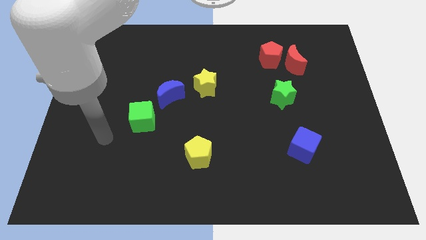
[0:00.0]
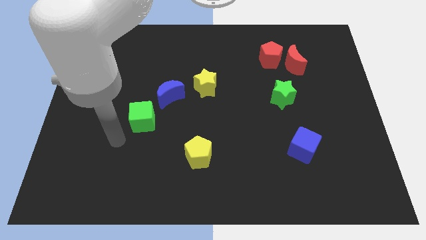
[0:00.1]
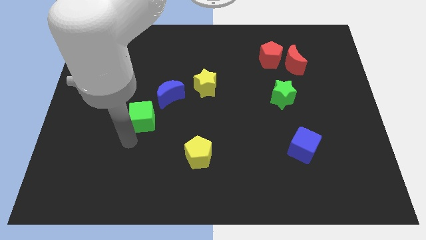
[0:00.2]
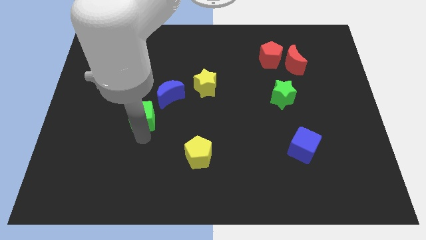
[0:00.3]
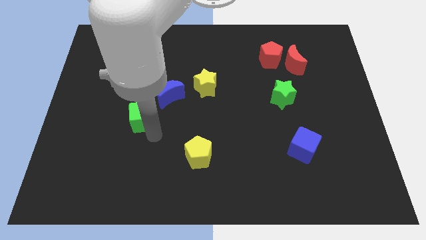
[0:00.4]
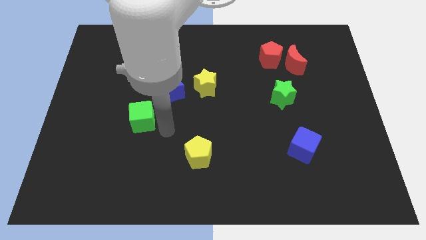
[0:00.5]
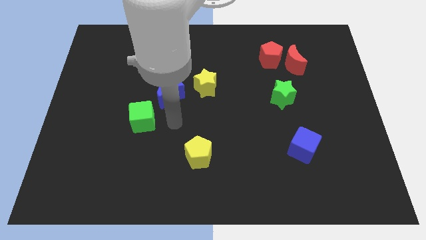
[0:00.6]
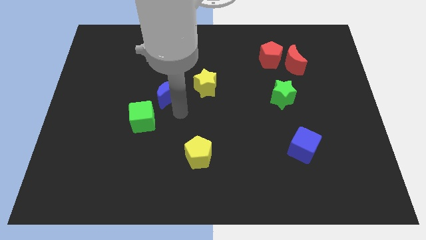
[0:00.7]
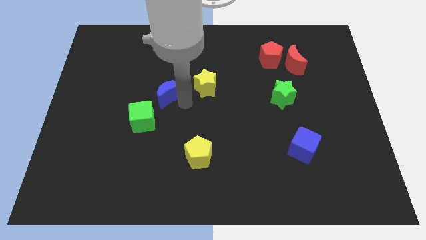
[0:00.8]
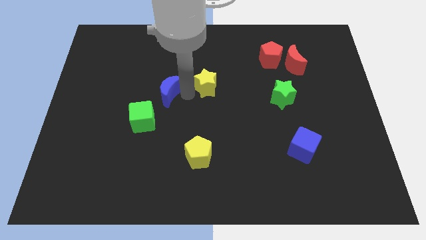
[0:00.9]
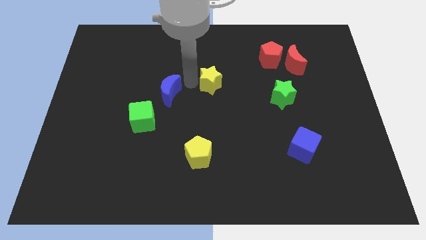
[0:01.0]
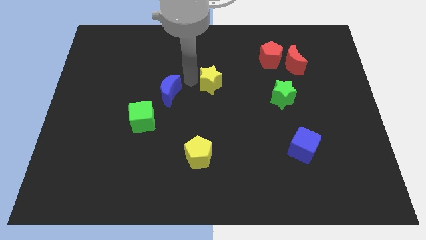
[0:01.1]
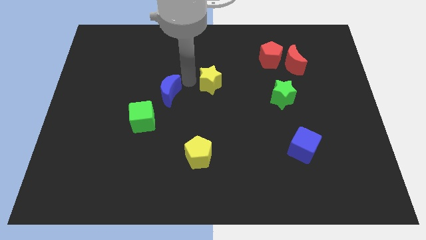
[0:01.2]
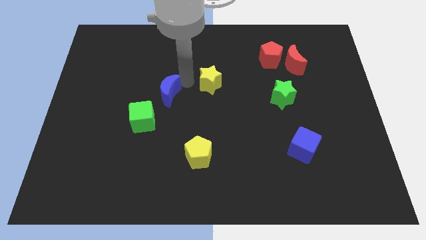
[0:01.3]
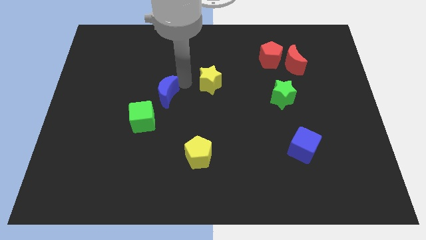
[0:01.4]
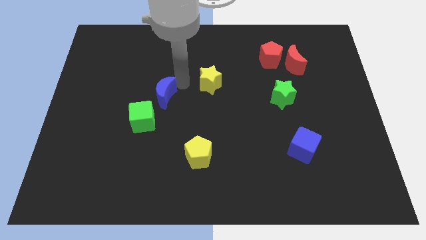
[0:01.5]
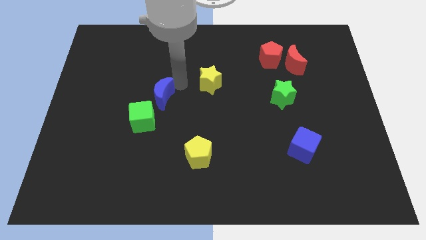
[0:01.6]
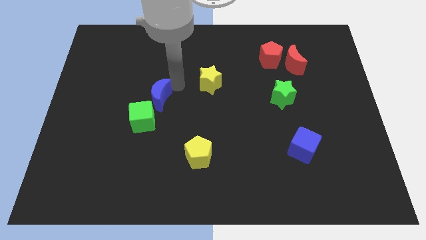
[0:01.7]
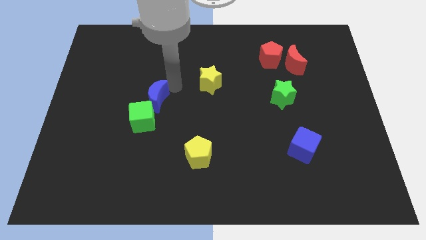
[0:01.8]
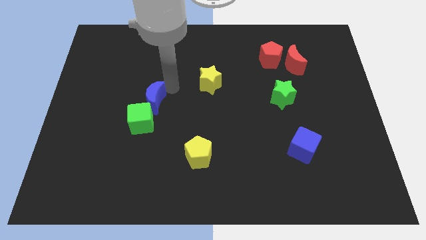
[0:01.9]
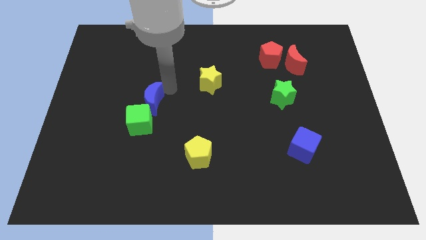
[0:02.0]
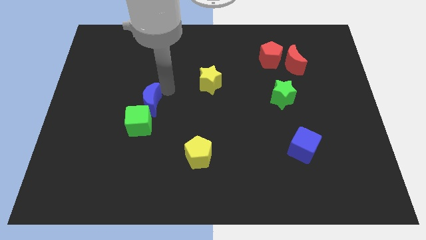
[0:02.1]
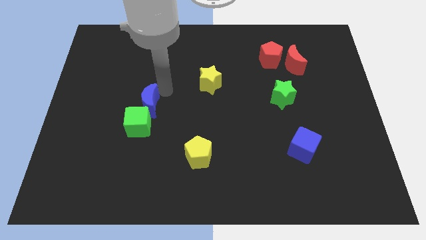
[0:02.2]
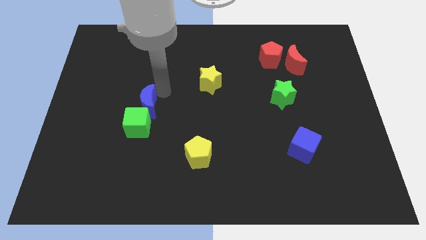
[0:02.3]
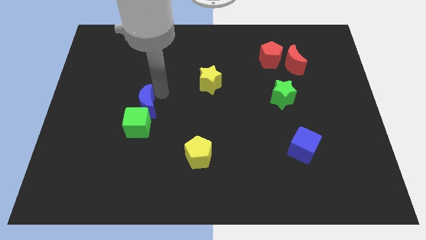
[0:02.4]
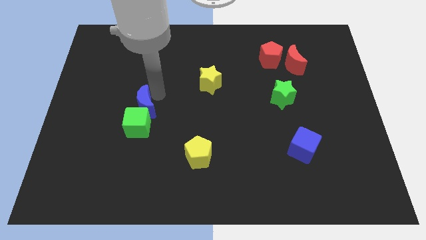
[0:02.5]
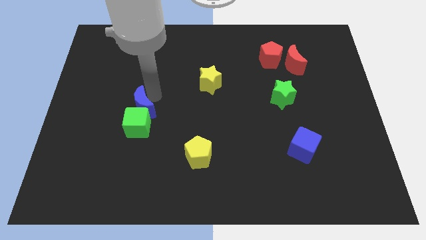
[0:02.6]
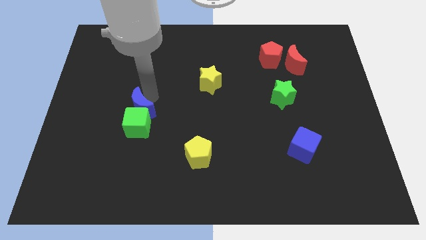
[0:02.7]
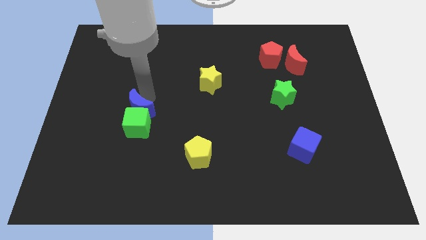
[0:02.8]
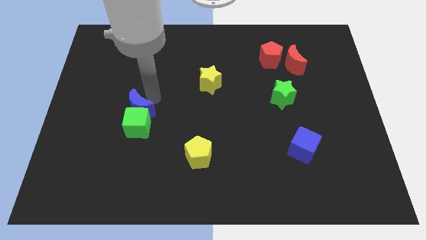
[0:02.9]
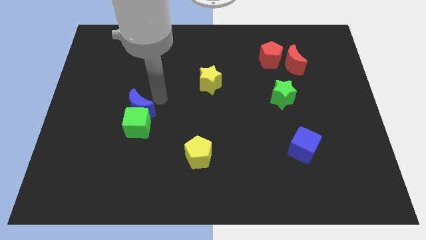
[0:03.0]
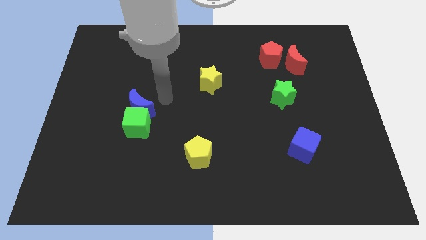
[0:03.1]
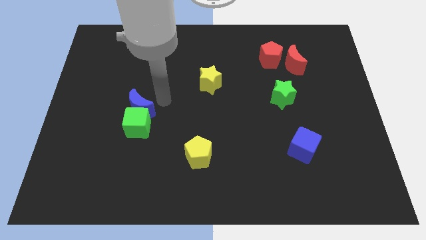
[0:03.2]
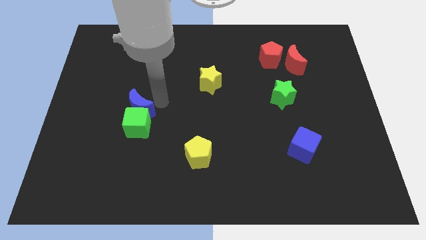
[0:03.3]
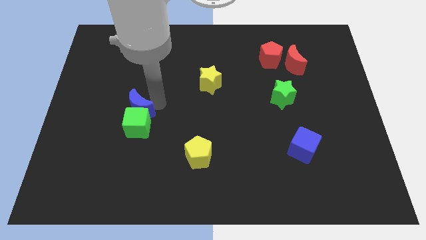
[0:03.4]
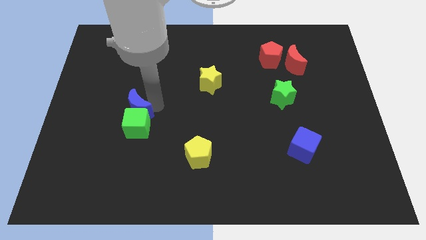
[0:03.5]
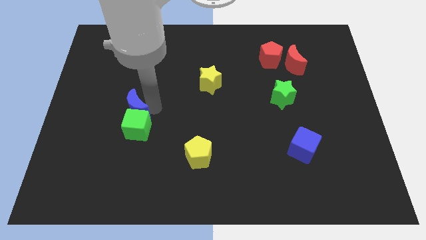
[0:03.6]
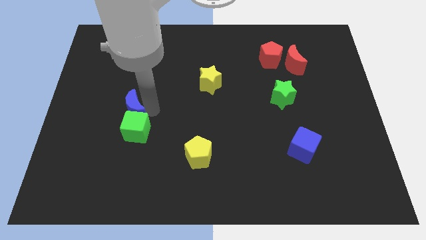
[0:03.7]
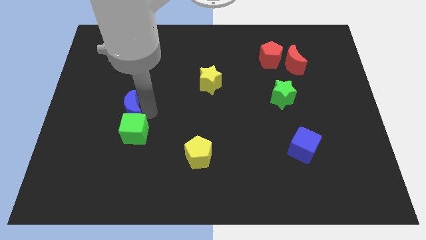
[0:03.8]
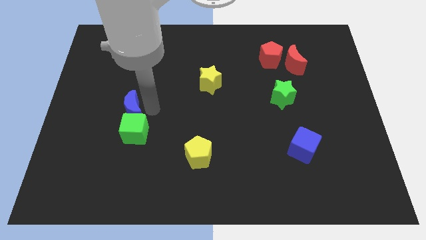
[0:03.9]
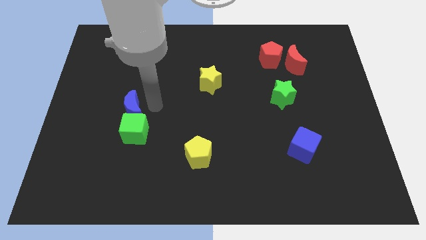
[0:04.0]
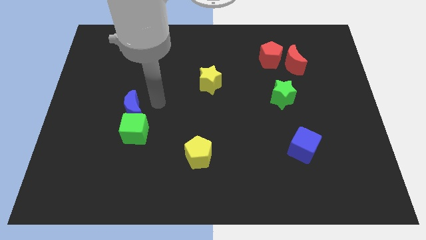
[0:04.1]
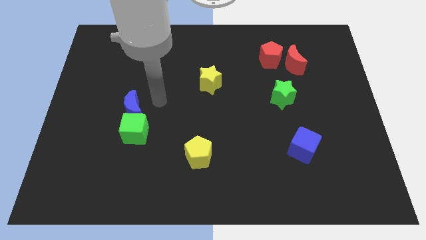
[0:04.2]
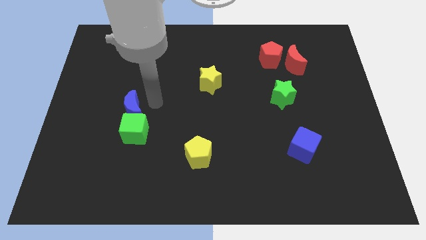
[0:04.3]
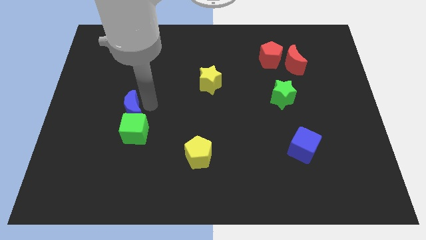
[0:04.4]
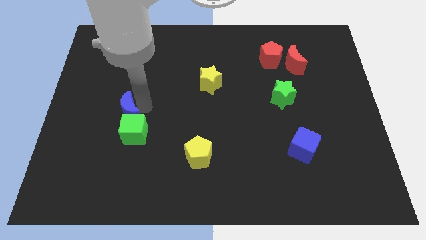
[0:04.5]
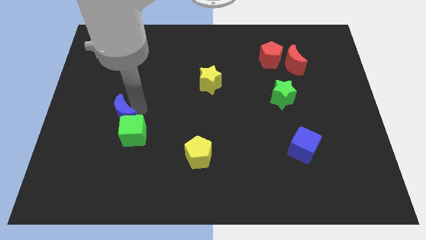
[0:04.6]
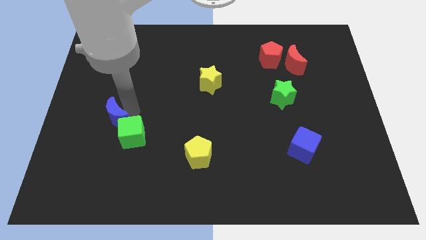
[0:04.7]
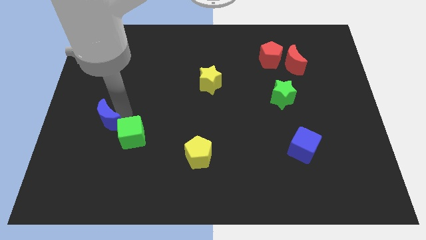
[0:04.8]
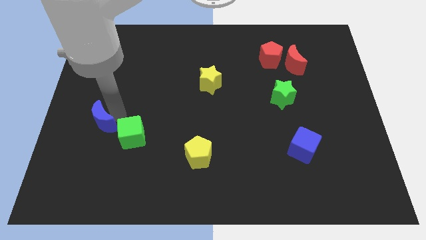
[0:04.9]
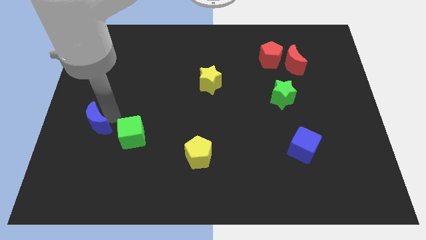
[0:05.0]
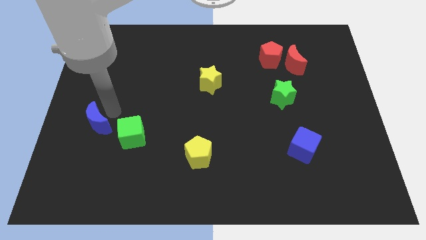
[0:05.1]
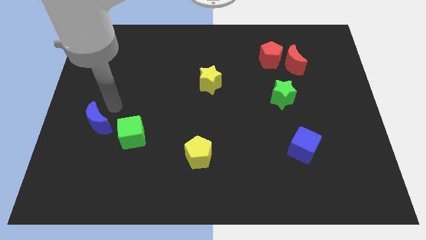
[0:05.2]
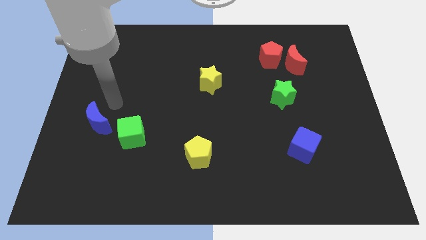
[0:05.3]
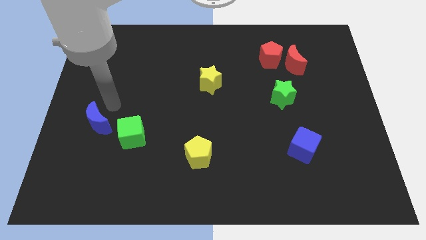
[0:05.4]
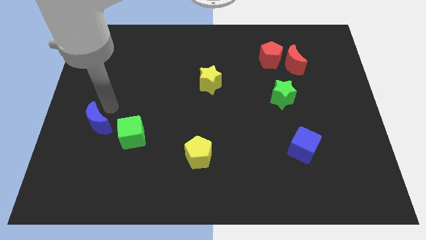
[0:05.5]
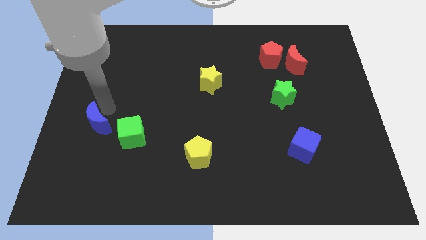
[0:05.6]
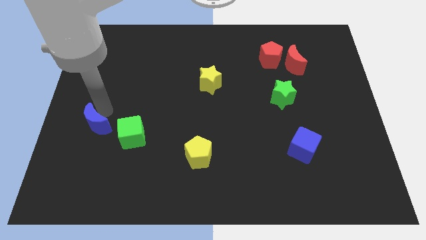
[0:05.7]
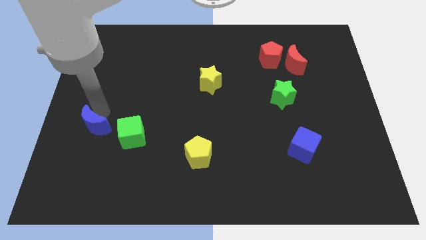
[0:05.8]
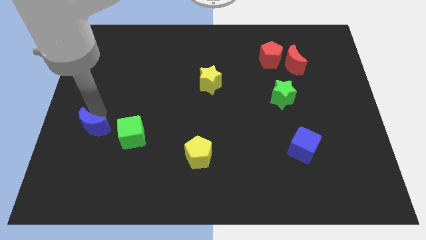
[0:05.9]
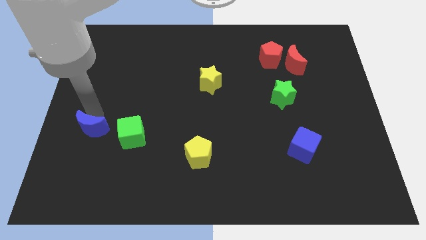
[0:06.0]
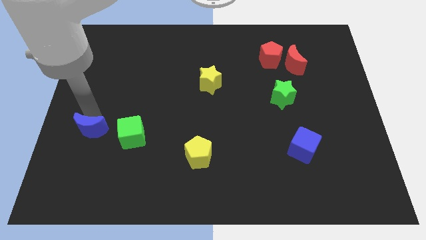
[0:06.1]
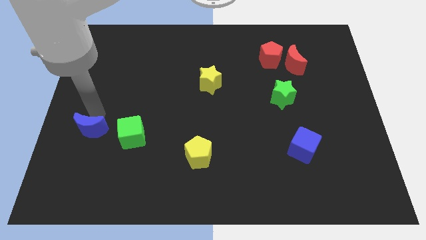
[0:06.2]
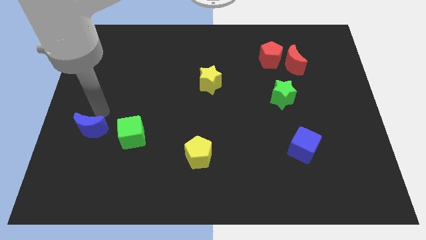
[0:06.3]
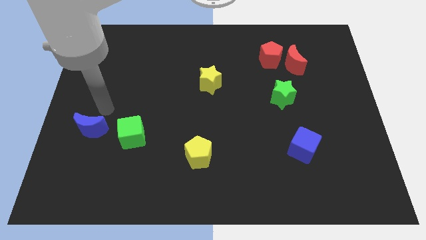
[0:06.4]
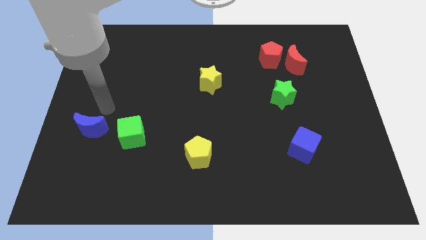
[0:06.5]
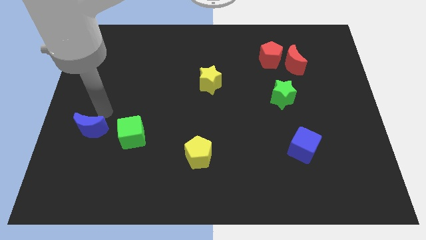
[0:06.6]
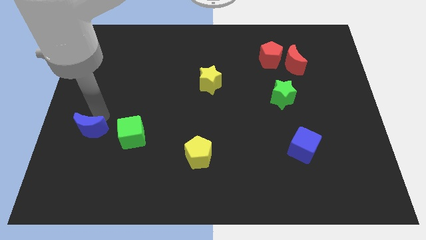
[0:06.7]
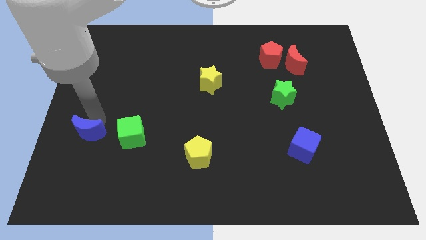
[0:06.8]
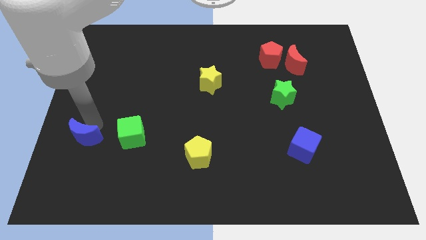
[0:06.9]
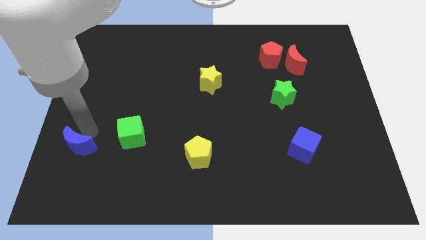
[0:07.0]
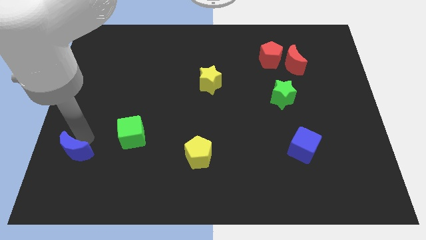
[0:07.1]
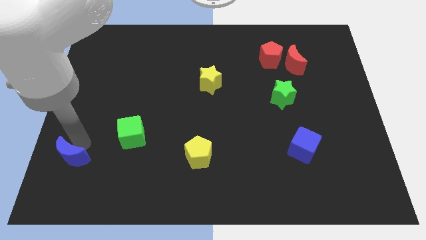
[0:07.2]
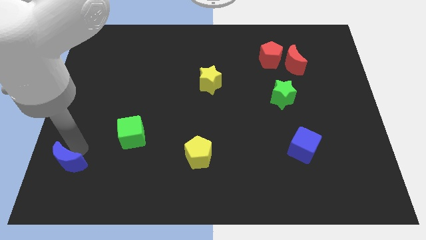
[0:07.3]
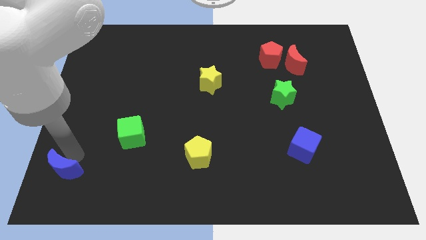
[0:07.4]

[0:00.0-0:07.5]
put the blue moon to the bottom left
